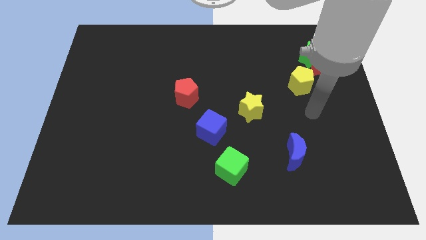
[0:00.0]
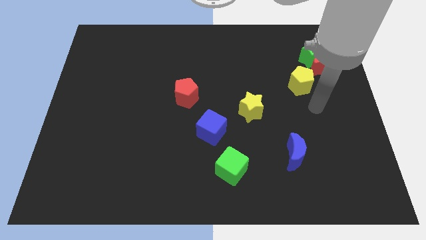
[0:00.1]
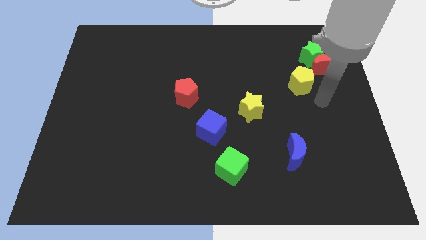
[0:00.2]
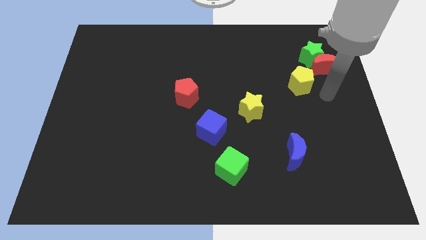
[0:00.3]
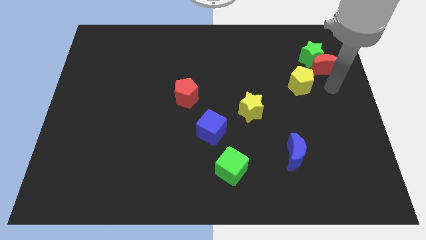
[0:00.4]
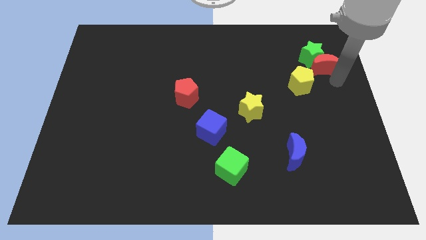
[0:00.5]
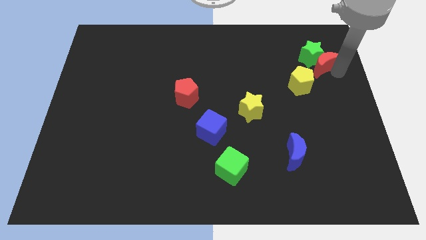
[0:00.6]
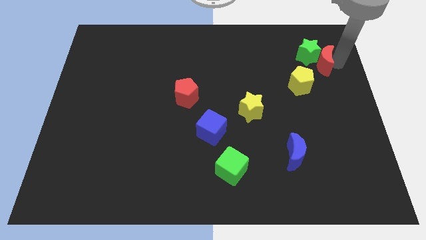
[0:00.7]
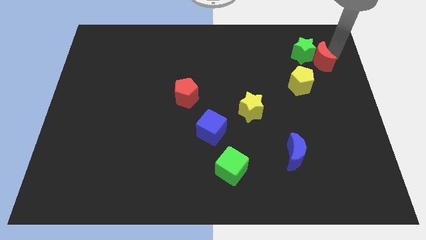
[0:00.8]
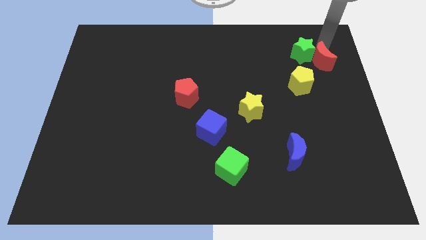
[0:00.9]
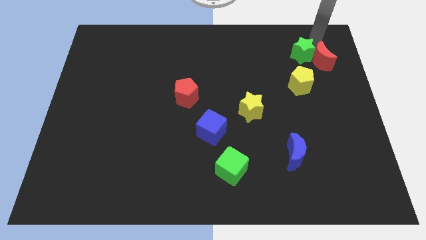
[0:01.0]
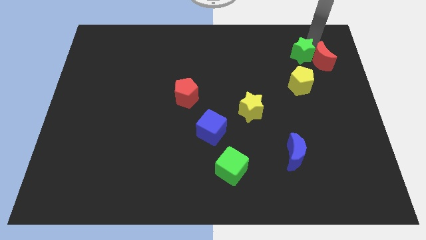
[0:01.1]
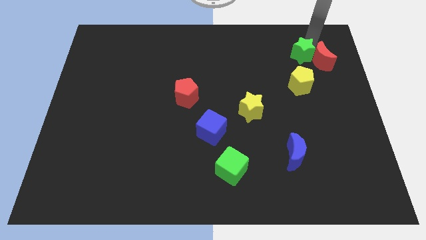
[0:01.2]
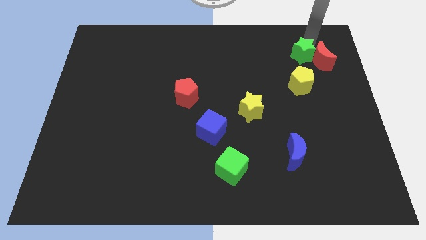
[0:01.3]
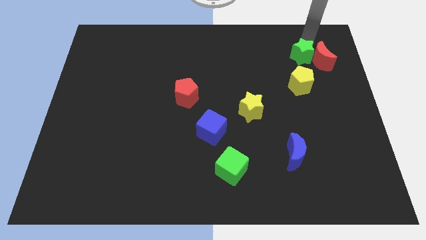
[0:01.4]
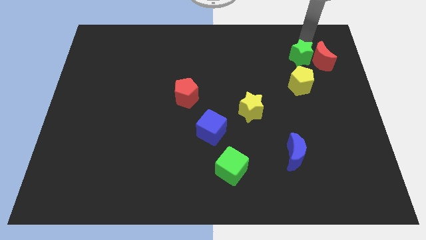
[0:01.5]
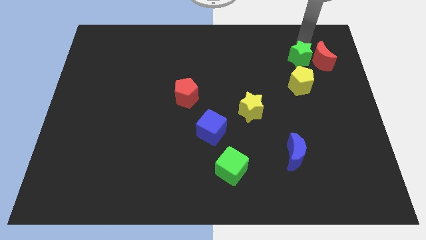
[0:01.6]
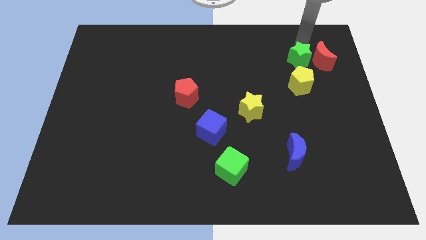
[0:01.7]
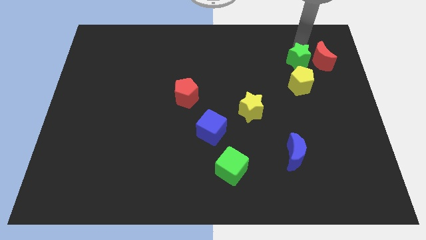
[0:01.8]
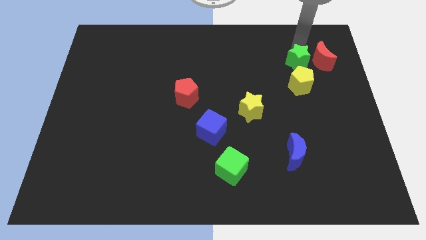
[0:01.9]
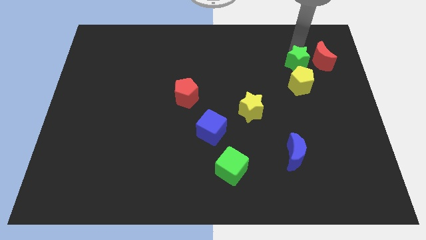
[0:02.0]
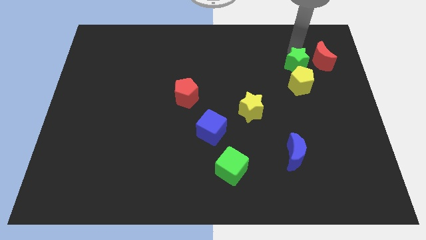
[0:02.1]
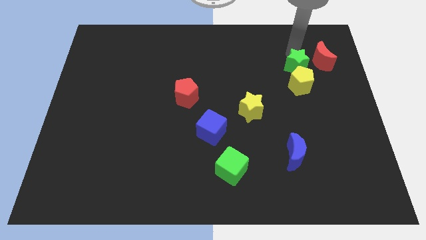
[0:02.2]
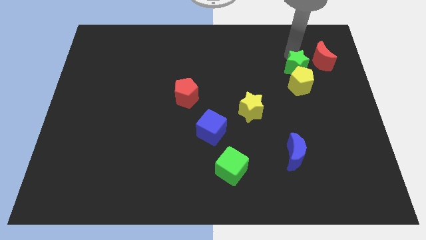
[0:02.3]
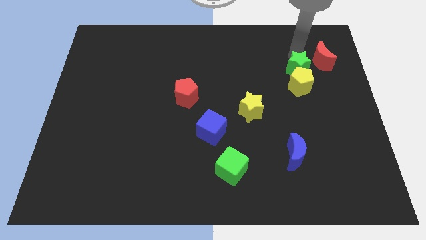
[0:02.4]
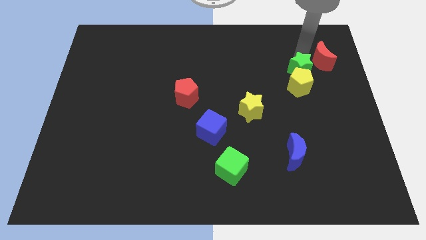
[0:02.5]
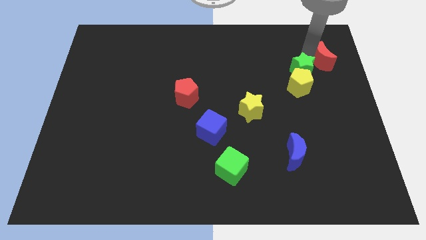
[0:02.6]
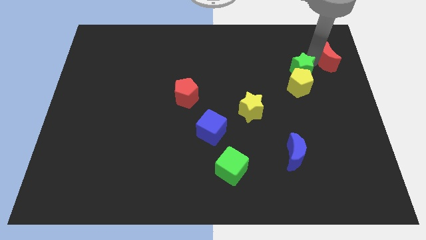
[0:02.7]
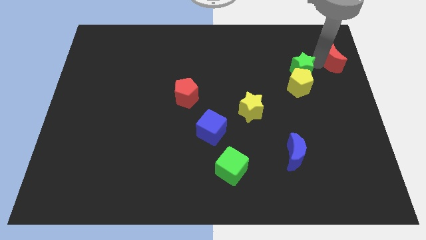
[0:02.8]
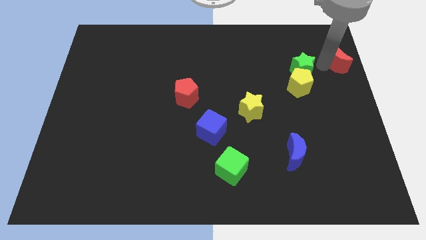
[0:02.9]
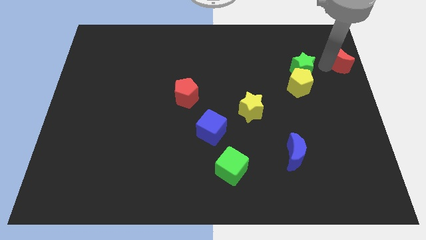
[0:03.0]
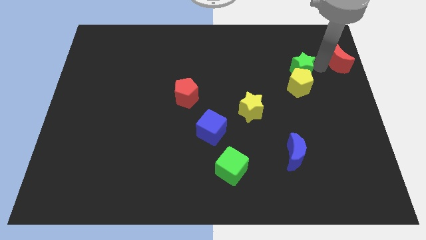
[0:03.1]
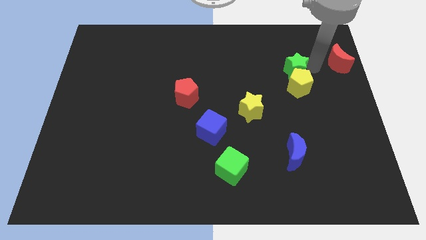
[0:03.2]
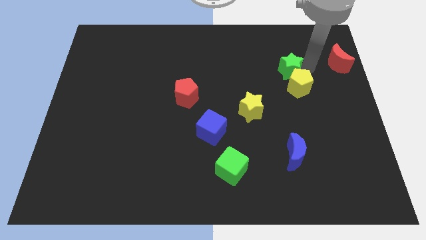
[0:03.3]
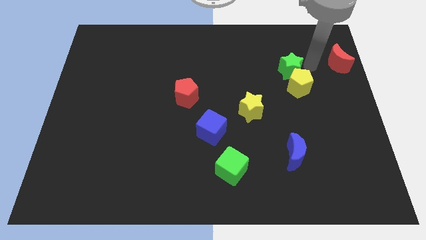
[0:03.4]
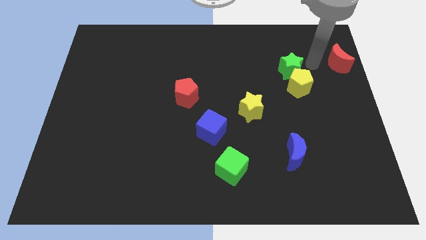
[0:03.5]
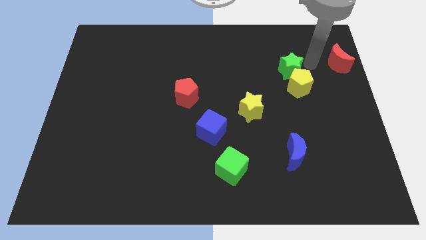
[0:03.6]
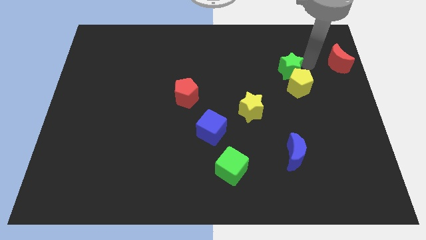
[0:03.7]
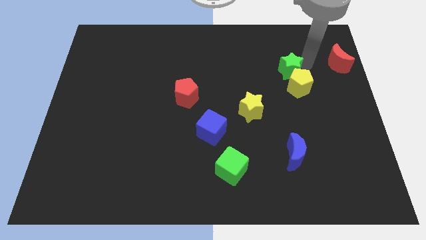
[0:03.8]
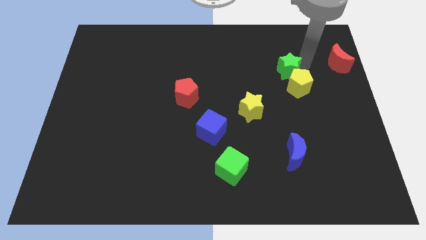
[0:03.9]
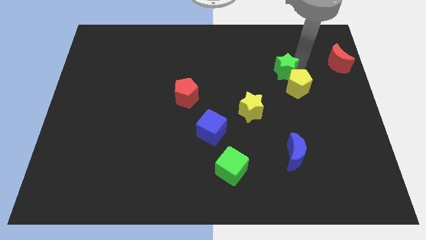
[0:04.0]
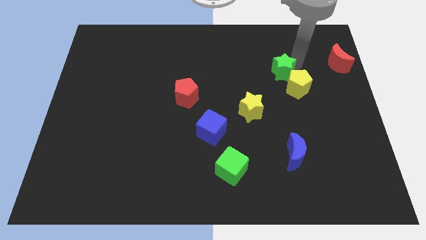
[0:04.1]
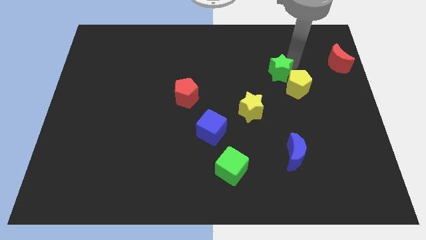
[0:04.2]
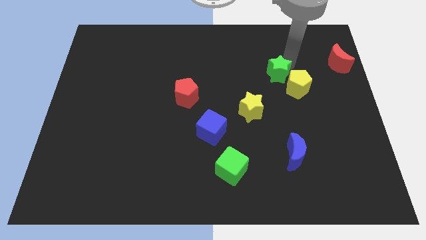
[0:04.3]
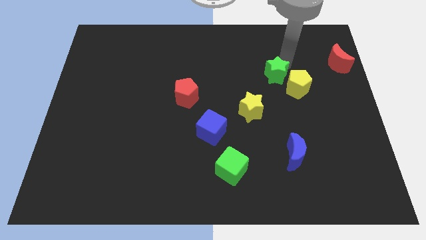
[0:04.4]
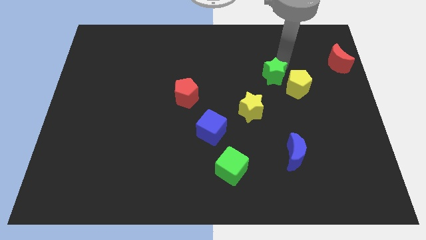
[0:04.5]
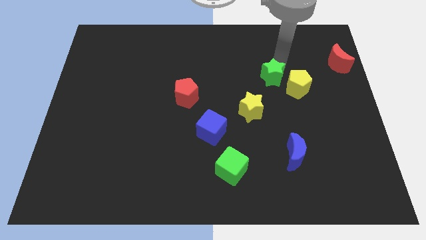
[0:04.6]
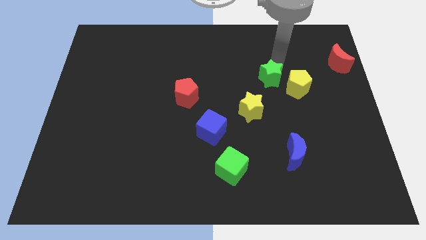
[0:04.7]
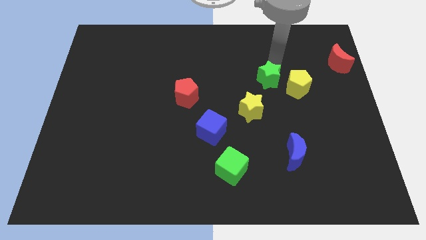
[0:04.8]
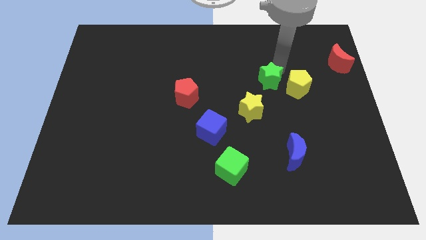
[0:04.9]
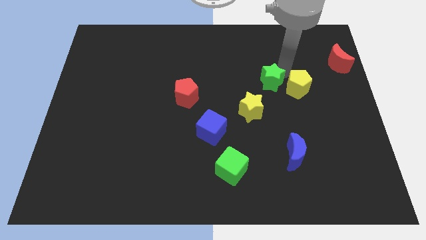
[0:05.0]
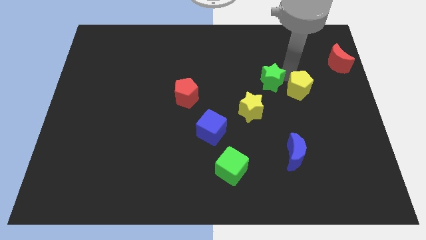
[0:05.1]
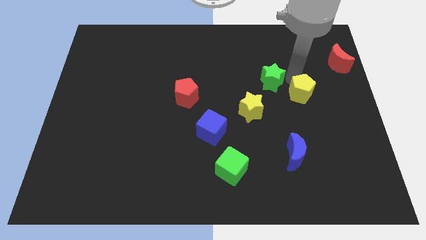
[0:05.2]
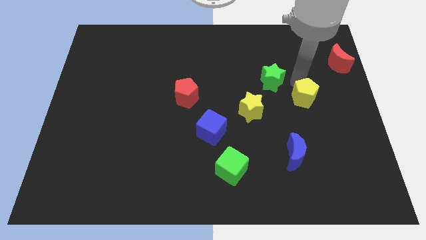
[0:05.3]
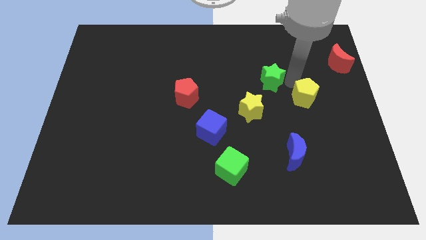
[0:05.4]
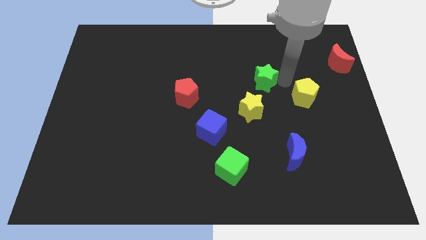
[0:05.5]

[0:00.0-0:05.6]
put the green star to the top side of the yellow star

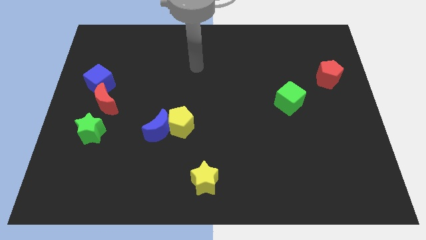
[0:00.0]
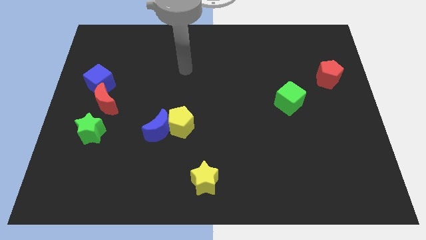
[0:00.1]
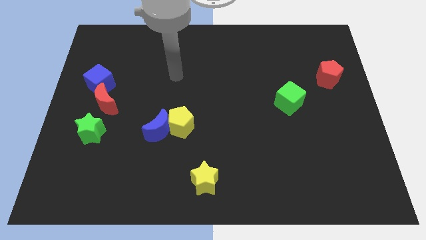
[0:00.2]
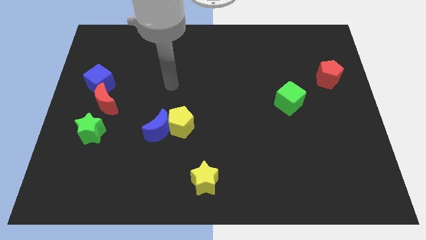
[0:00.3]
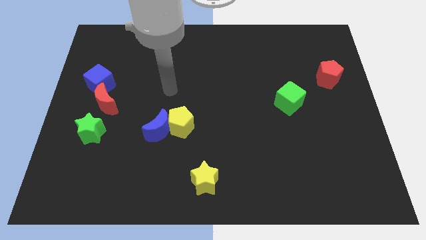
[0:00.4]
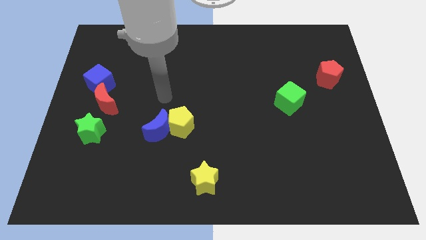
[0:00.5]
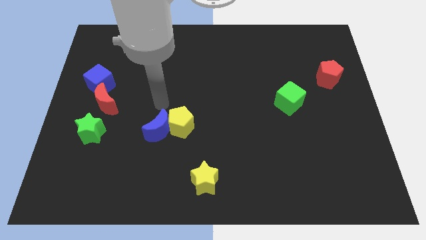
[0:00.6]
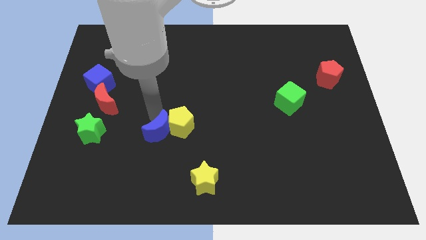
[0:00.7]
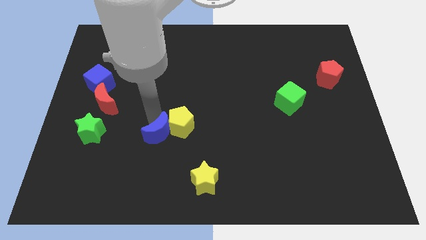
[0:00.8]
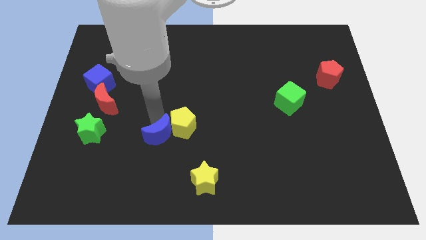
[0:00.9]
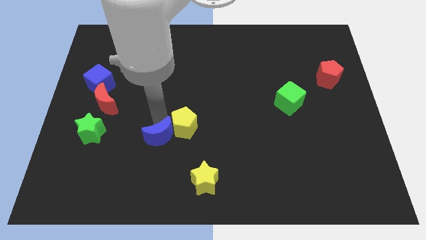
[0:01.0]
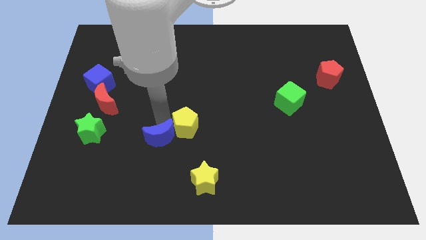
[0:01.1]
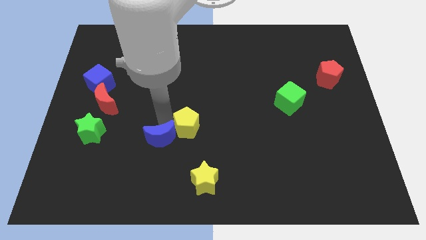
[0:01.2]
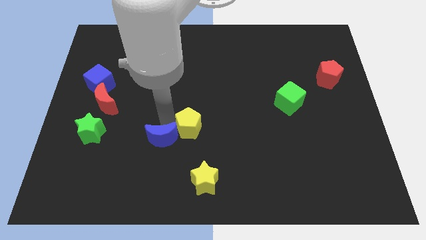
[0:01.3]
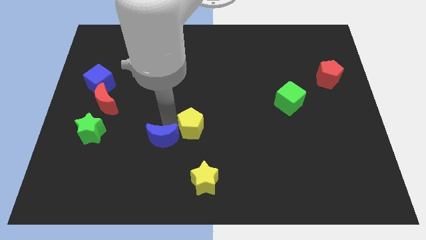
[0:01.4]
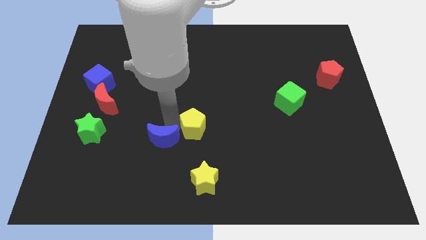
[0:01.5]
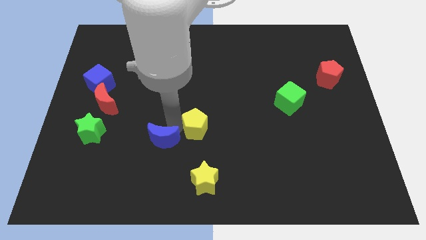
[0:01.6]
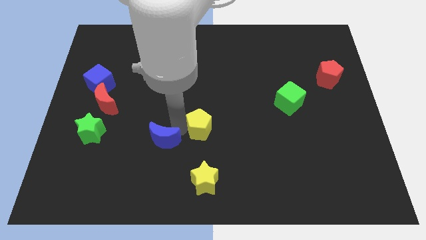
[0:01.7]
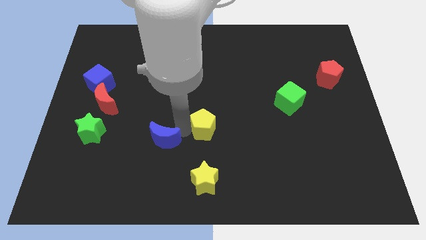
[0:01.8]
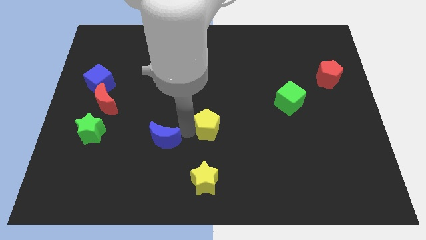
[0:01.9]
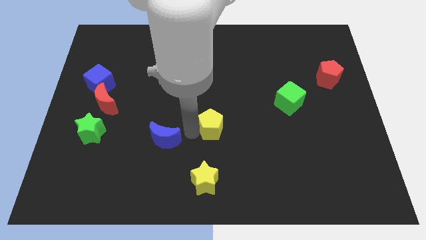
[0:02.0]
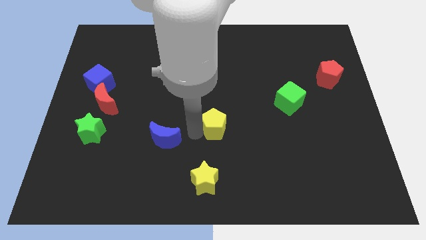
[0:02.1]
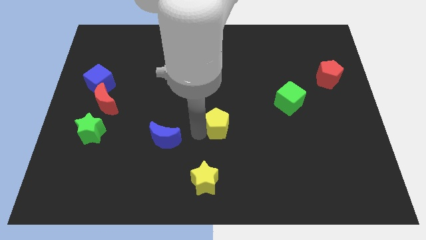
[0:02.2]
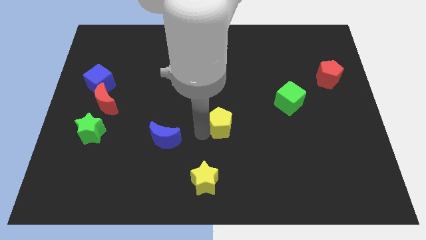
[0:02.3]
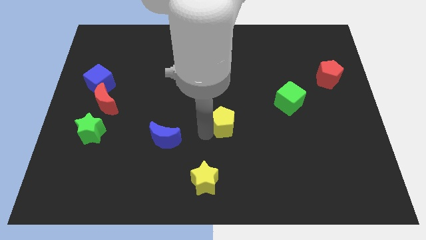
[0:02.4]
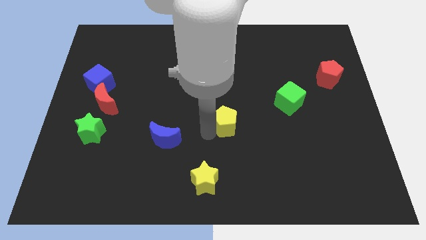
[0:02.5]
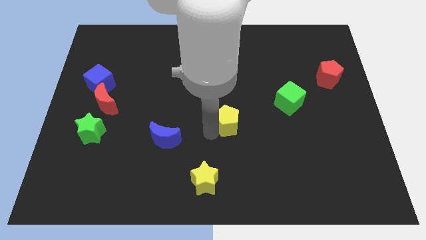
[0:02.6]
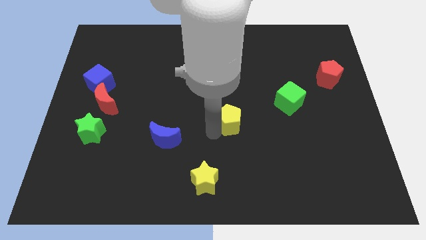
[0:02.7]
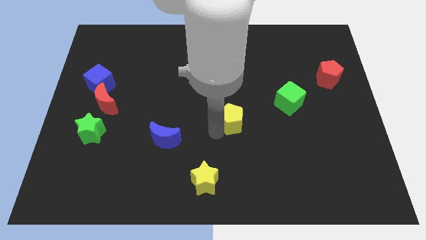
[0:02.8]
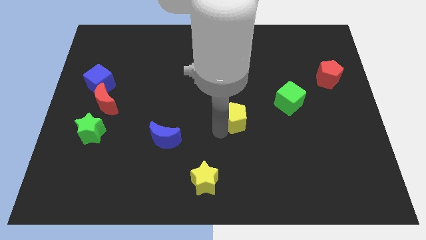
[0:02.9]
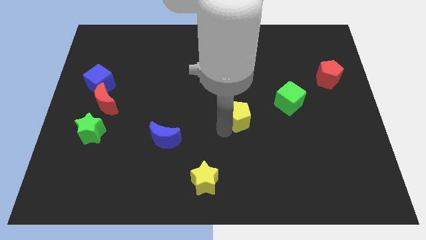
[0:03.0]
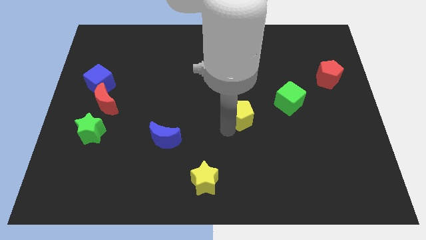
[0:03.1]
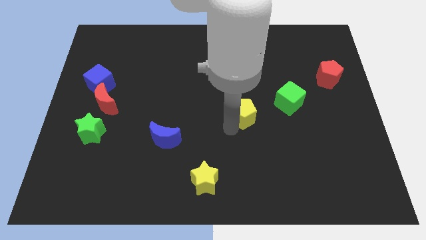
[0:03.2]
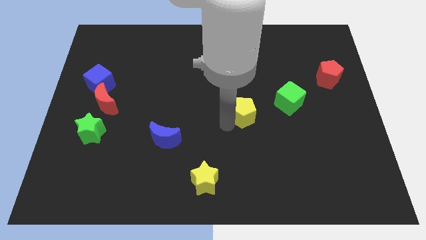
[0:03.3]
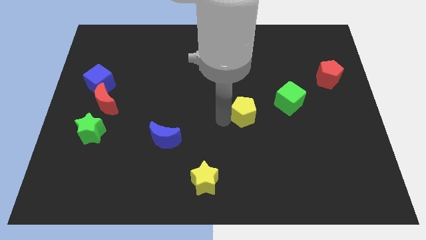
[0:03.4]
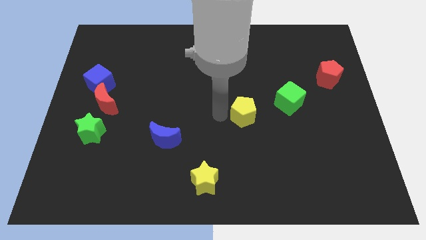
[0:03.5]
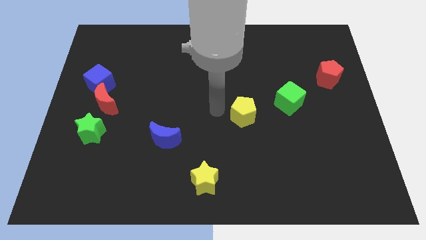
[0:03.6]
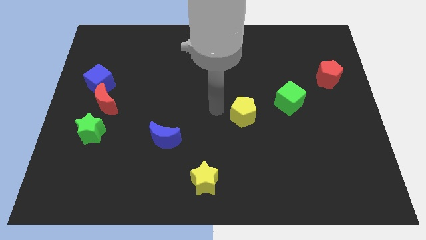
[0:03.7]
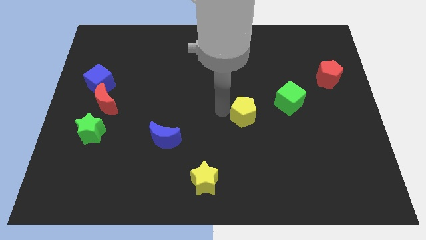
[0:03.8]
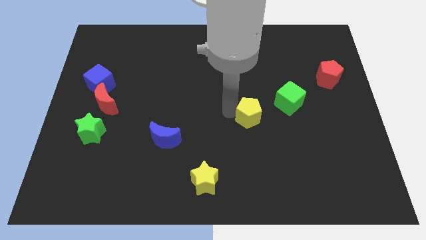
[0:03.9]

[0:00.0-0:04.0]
slide the yellow pentagon to the bottom left of the green cube
